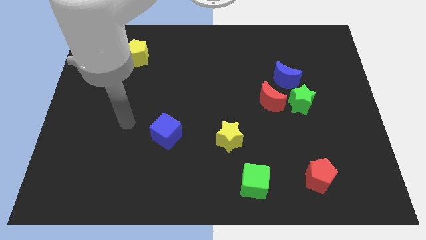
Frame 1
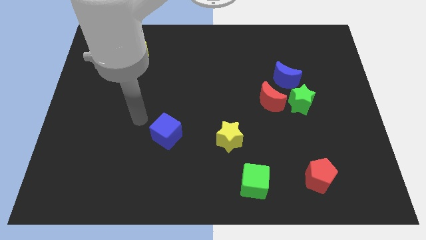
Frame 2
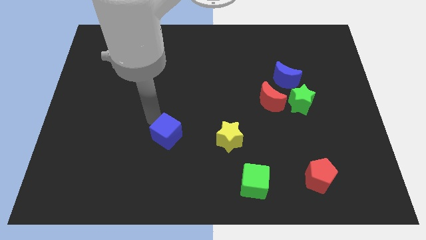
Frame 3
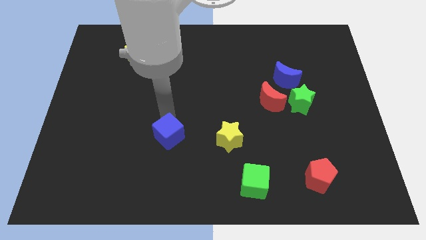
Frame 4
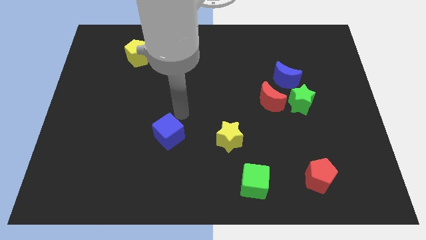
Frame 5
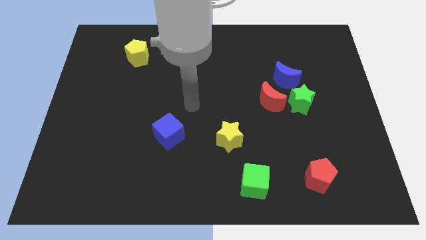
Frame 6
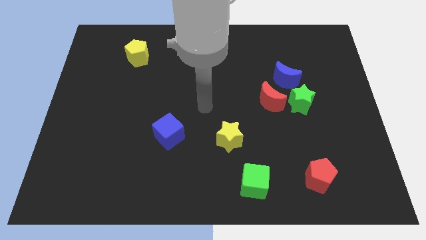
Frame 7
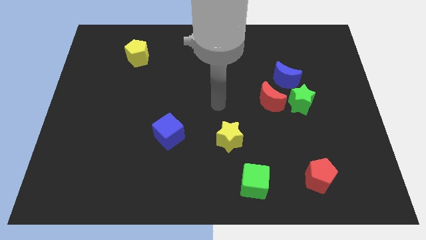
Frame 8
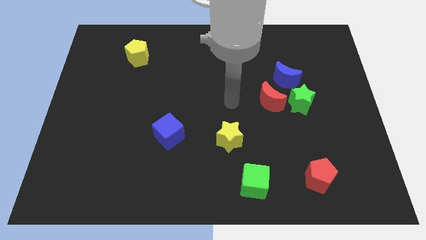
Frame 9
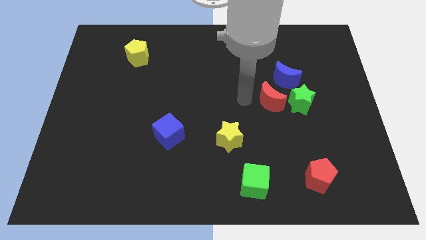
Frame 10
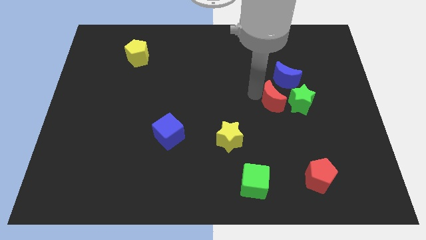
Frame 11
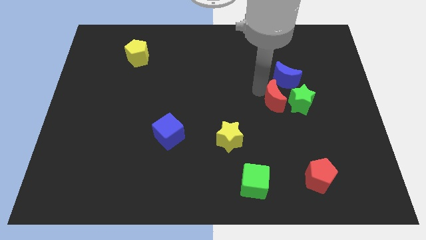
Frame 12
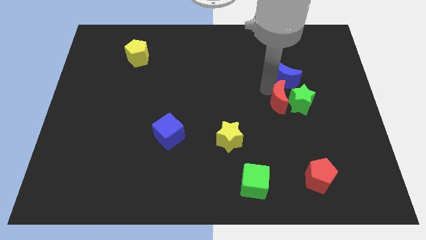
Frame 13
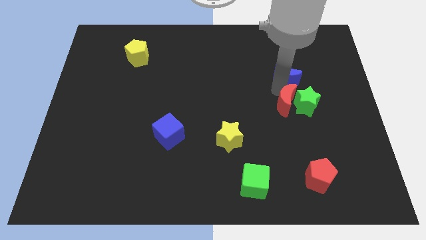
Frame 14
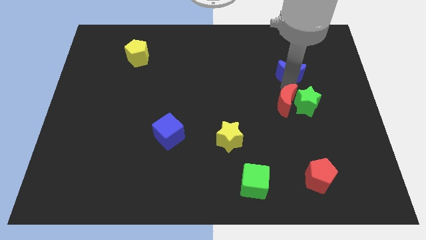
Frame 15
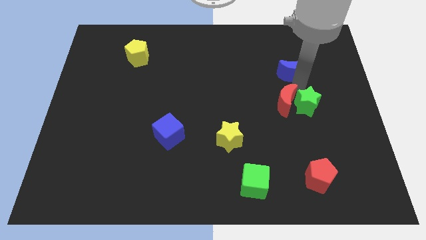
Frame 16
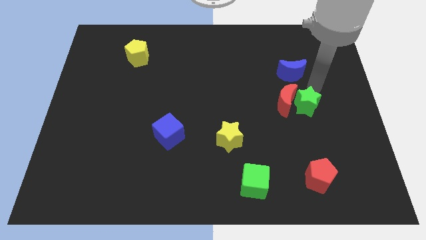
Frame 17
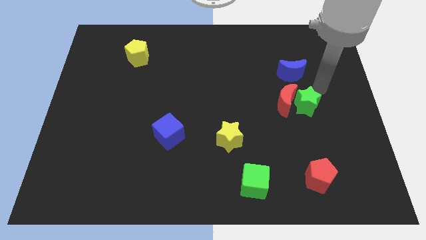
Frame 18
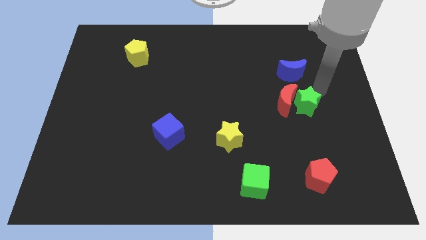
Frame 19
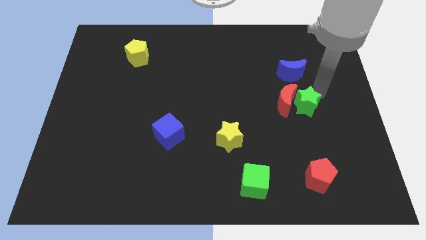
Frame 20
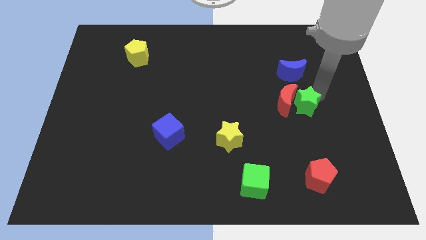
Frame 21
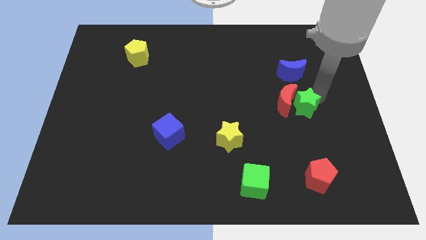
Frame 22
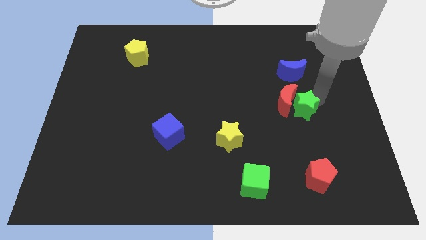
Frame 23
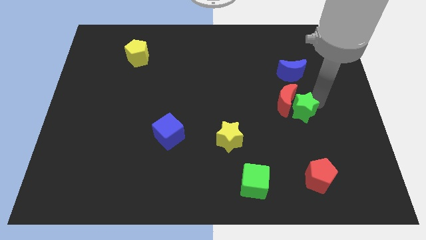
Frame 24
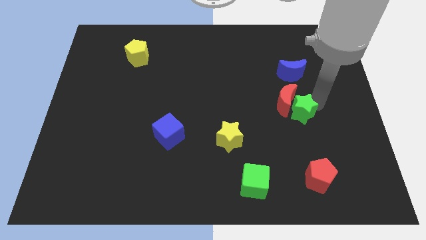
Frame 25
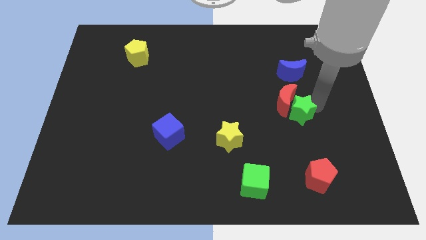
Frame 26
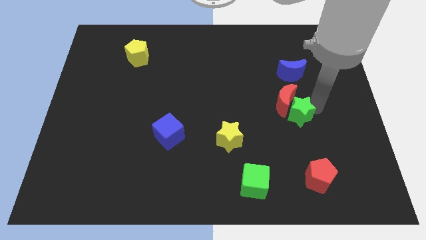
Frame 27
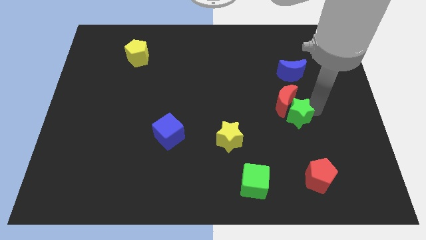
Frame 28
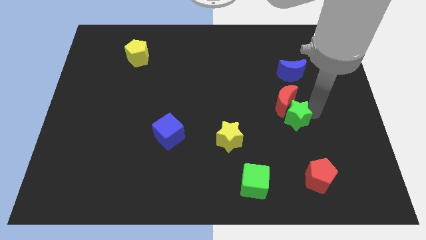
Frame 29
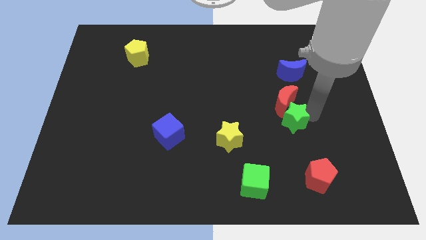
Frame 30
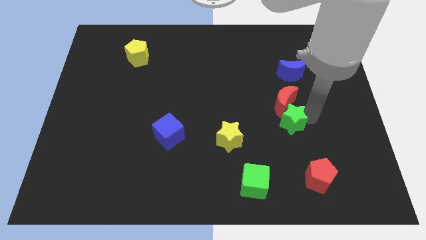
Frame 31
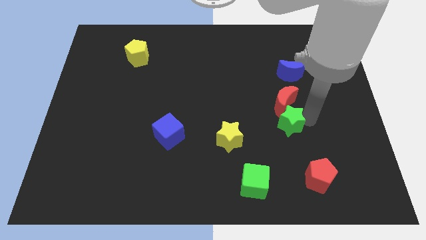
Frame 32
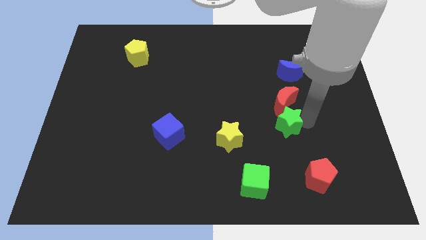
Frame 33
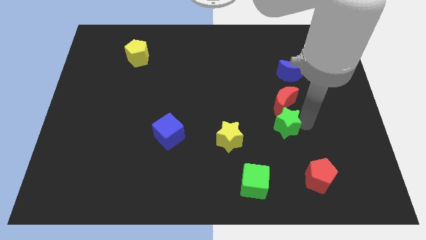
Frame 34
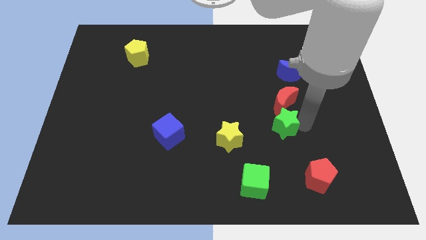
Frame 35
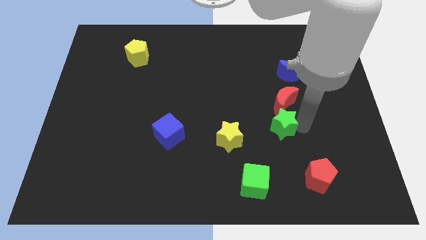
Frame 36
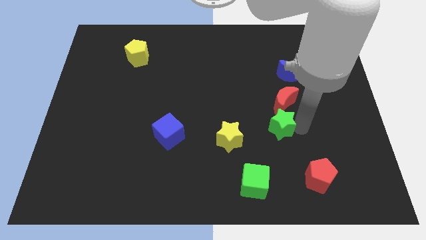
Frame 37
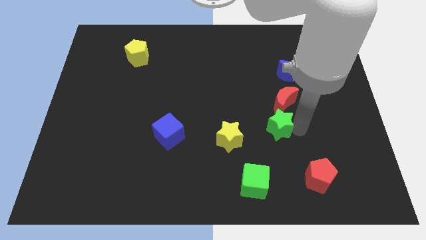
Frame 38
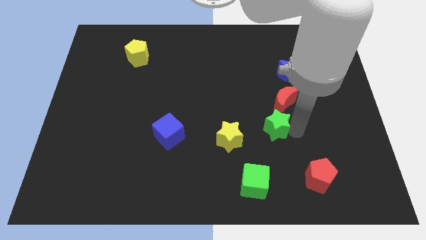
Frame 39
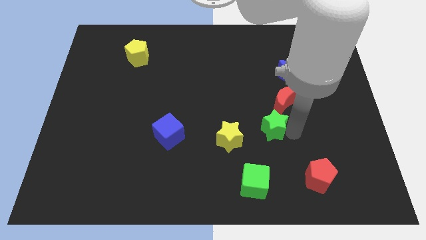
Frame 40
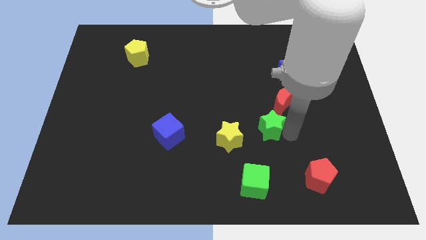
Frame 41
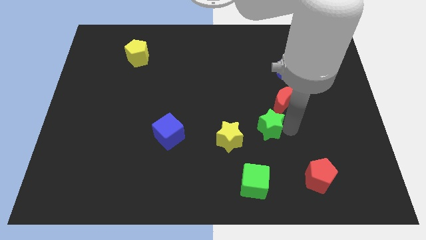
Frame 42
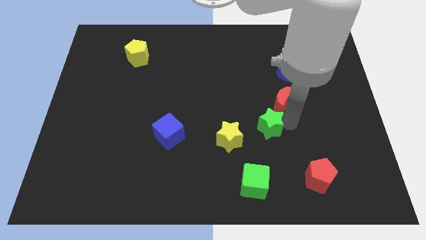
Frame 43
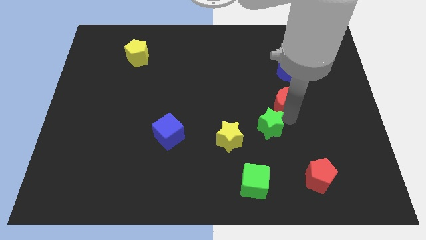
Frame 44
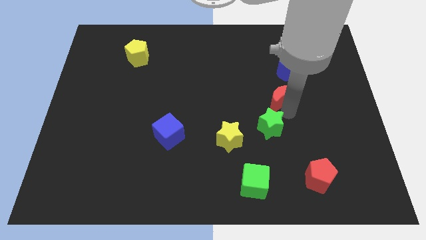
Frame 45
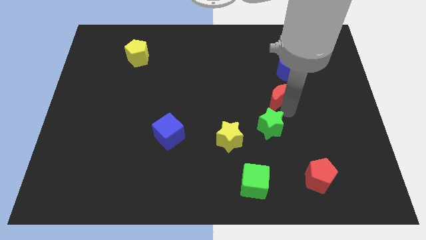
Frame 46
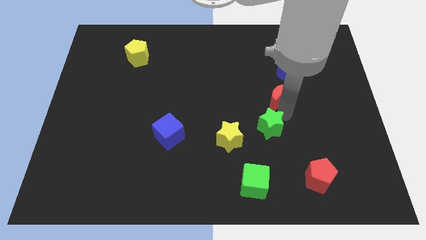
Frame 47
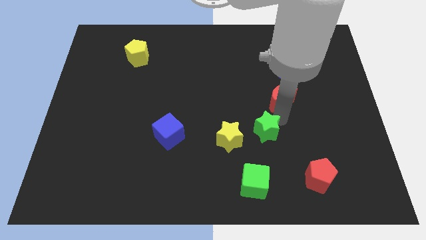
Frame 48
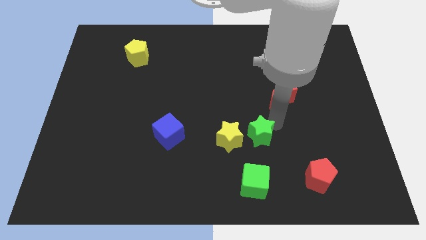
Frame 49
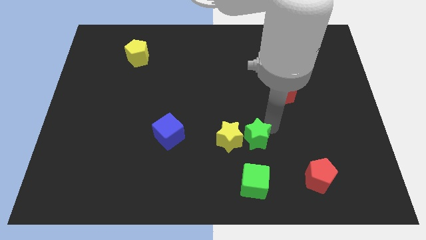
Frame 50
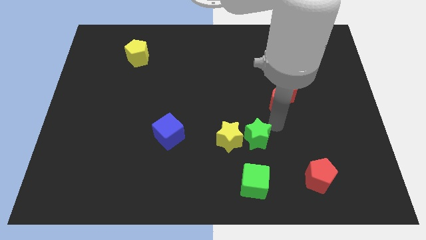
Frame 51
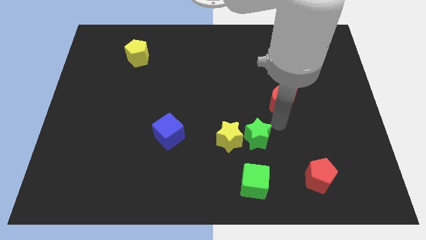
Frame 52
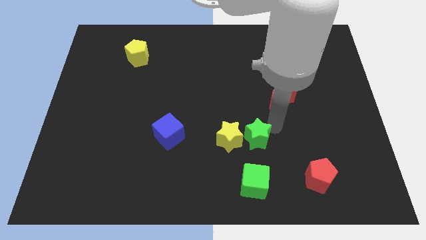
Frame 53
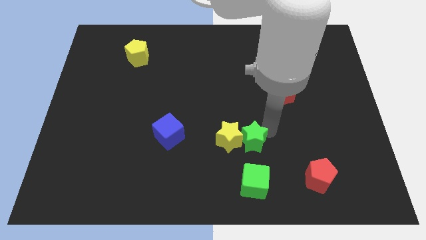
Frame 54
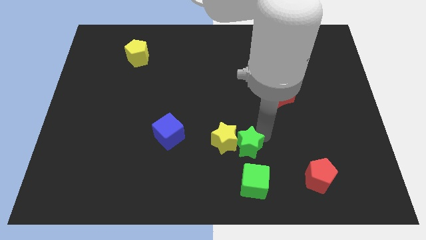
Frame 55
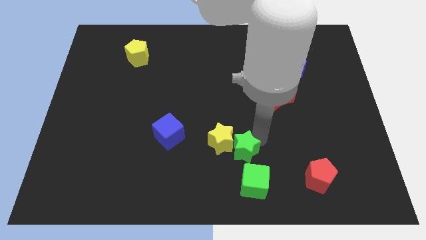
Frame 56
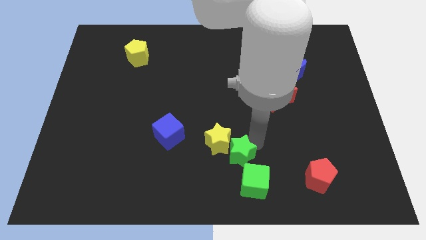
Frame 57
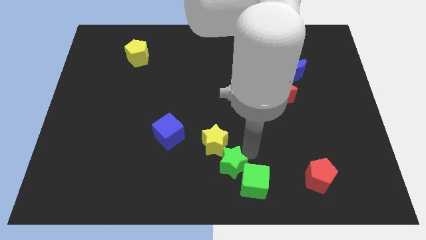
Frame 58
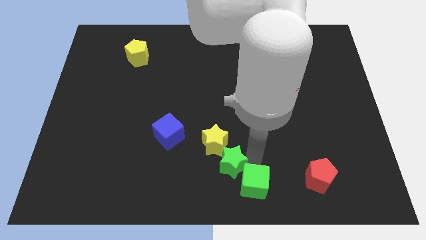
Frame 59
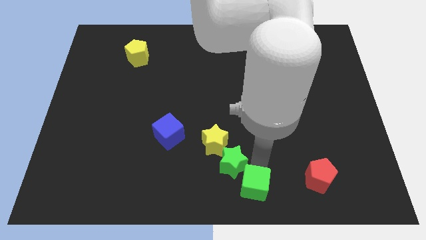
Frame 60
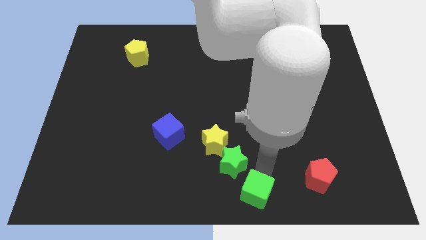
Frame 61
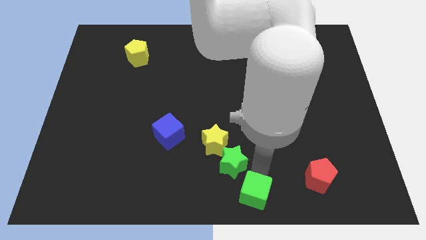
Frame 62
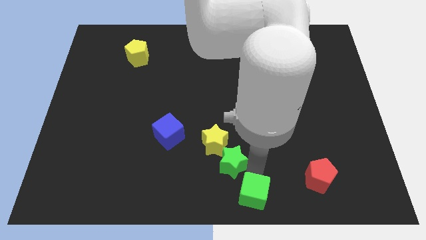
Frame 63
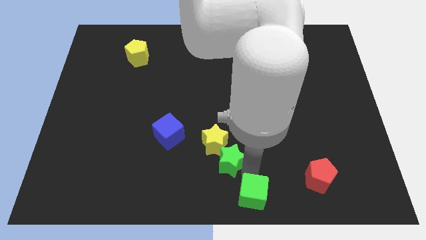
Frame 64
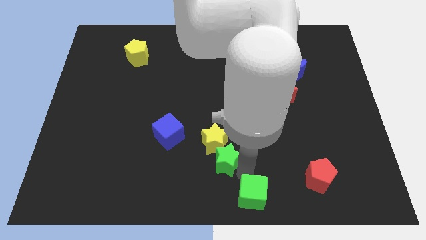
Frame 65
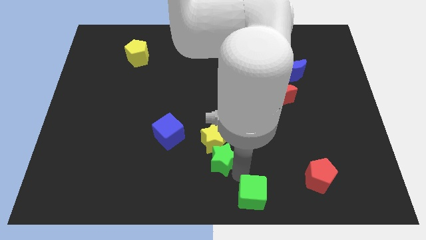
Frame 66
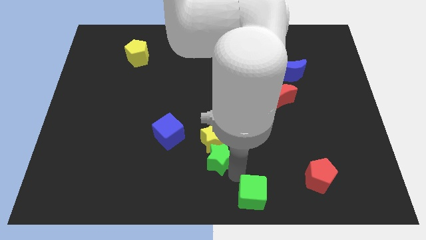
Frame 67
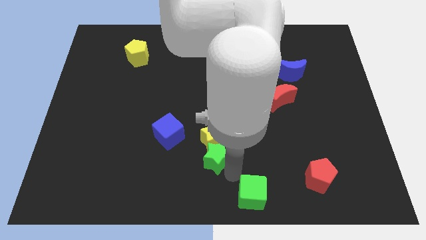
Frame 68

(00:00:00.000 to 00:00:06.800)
move the green star to the bottom right side of the blue cube
